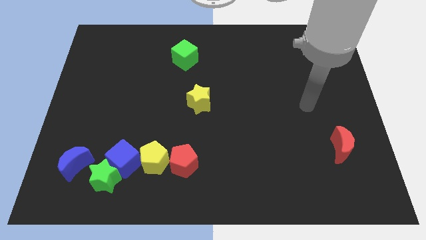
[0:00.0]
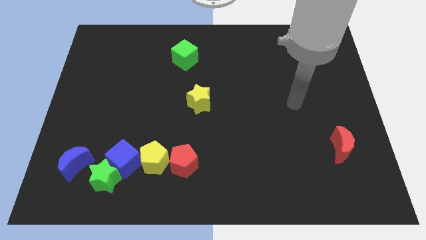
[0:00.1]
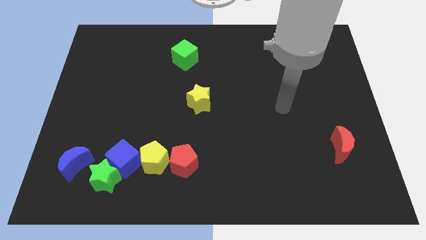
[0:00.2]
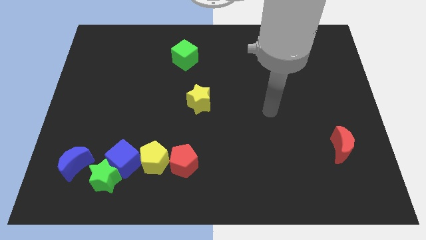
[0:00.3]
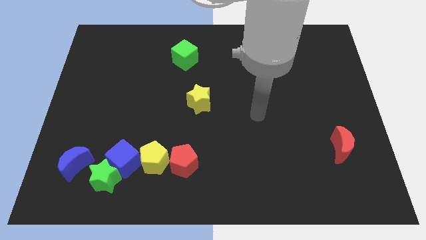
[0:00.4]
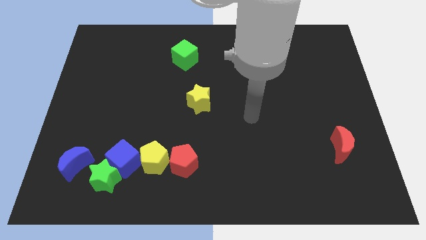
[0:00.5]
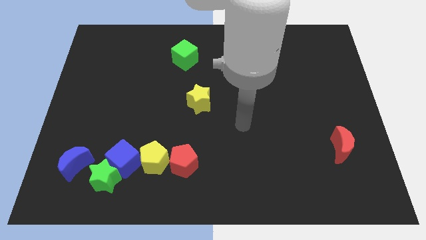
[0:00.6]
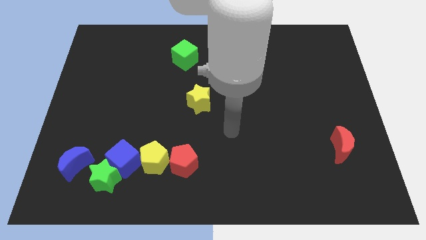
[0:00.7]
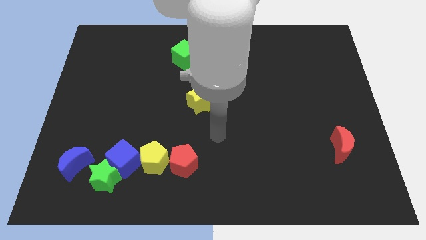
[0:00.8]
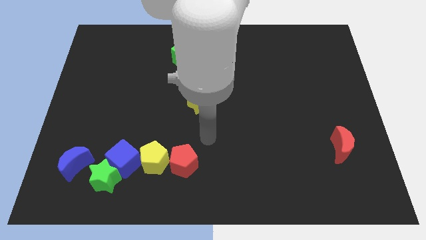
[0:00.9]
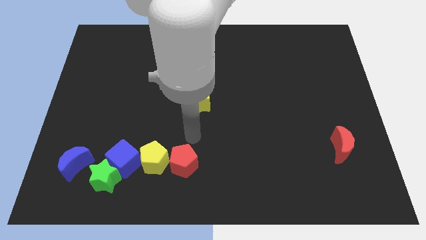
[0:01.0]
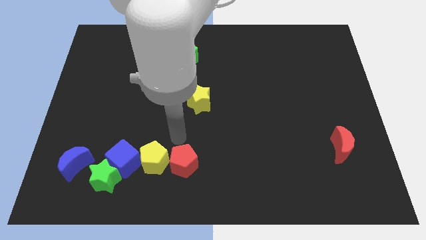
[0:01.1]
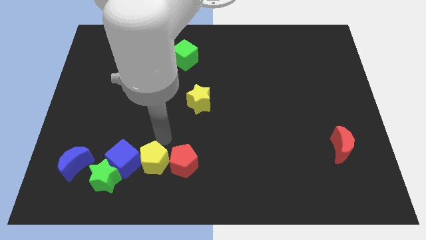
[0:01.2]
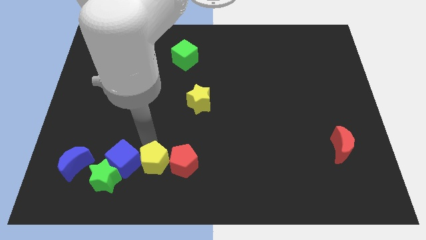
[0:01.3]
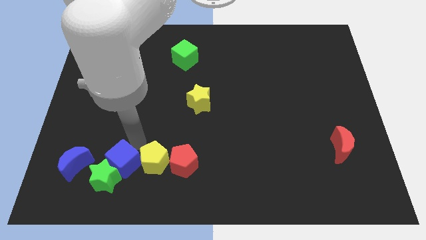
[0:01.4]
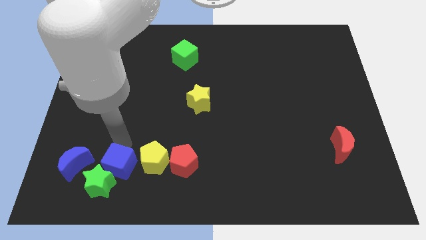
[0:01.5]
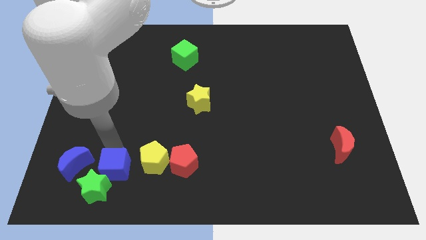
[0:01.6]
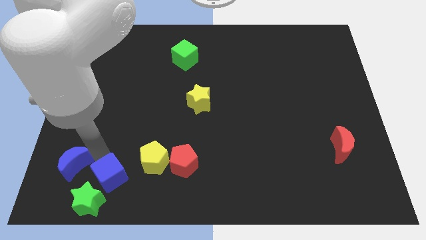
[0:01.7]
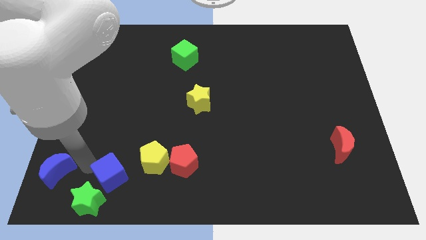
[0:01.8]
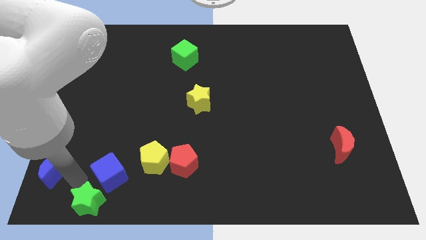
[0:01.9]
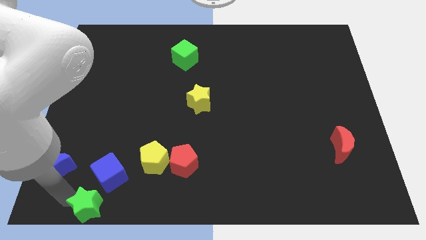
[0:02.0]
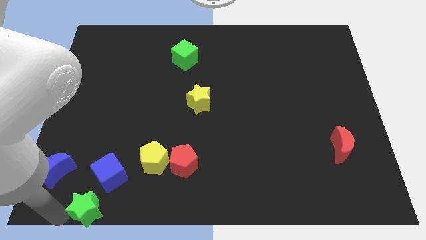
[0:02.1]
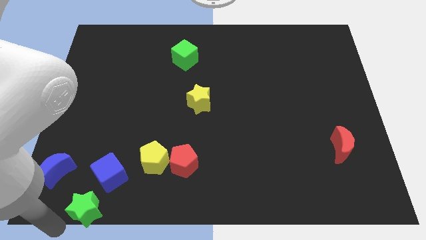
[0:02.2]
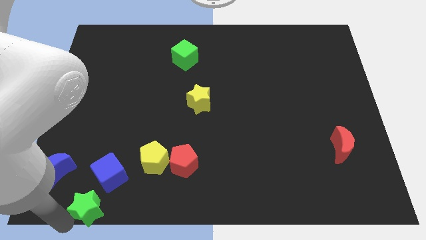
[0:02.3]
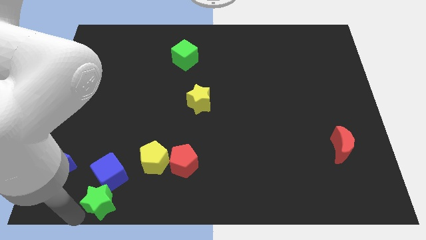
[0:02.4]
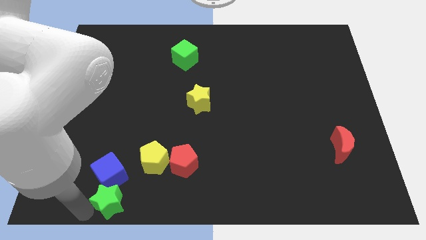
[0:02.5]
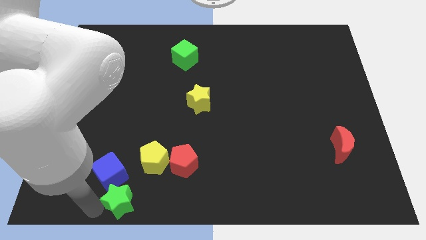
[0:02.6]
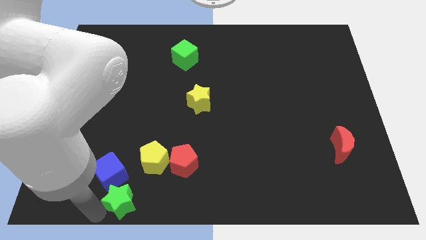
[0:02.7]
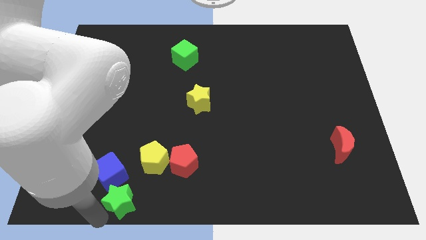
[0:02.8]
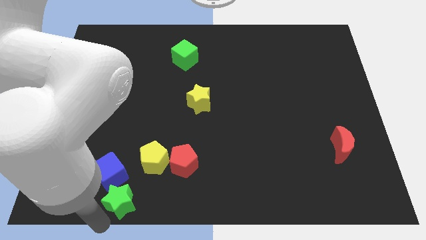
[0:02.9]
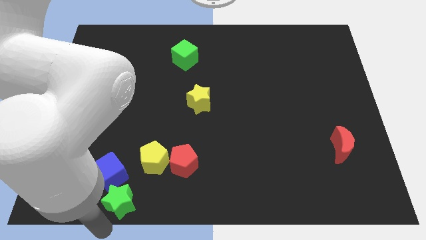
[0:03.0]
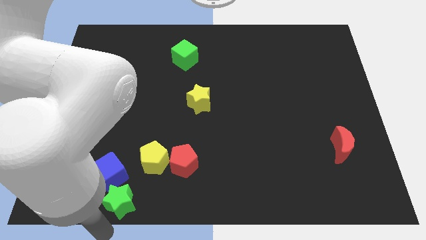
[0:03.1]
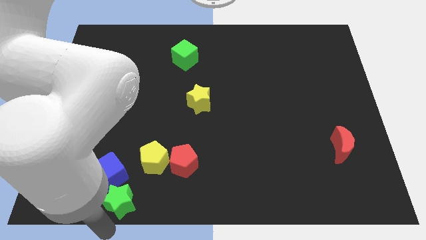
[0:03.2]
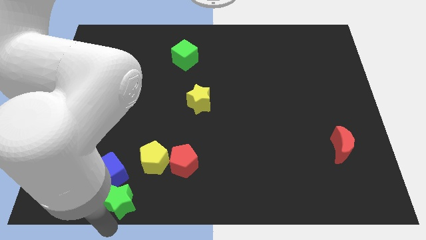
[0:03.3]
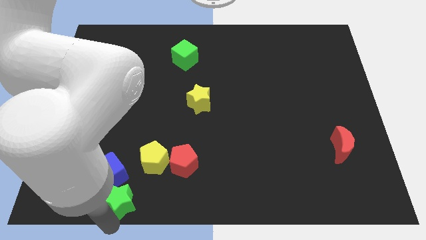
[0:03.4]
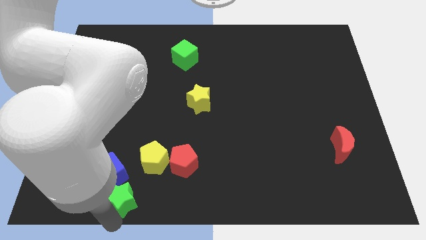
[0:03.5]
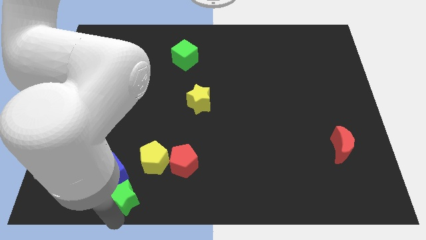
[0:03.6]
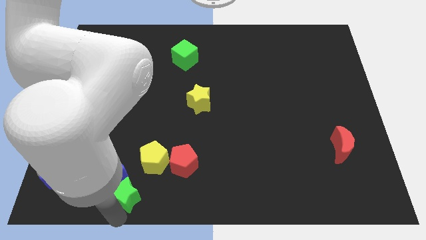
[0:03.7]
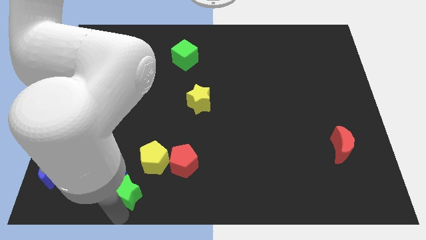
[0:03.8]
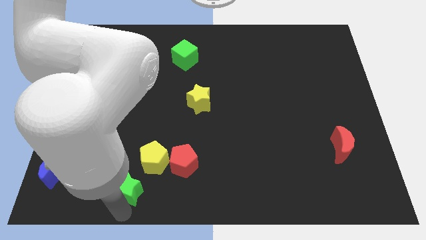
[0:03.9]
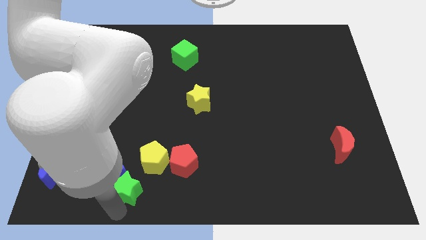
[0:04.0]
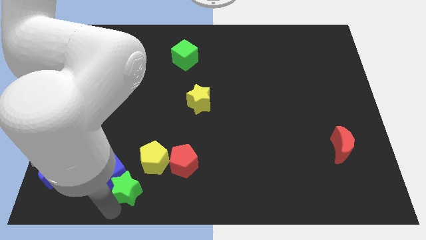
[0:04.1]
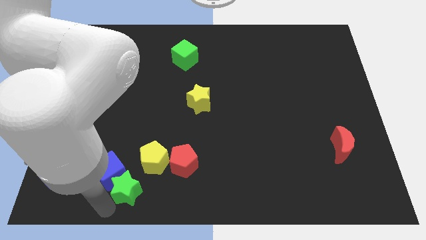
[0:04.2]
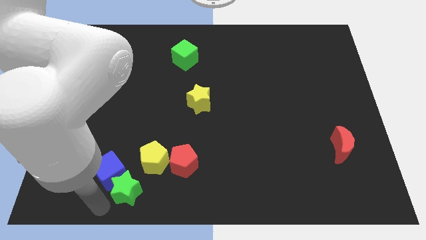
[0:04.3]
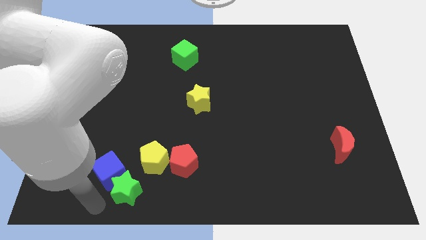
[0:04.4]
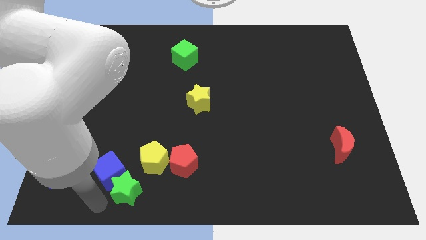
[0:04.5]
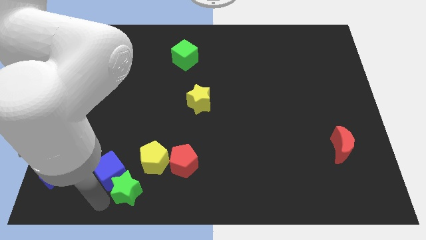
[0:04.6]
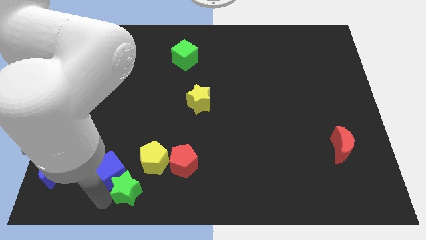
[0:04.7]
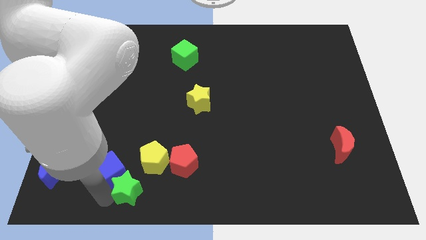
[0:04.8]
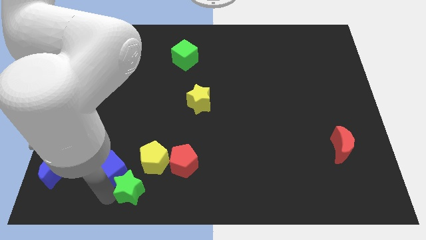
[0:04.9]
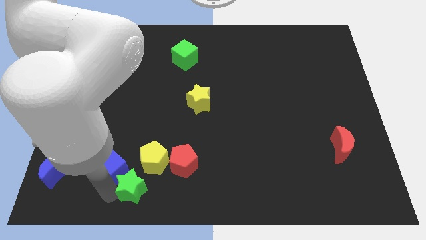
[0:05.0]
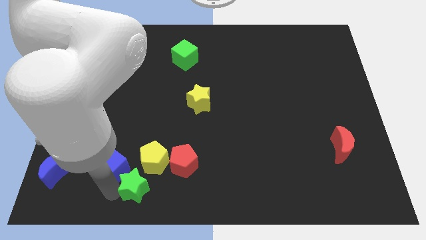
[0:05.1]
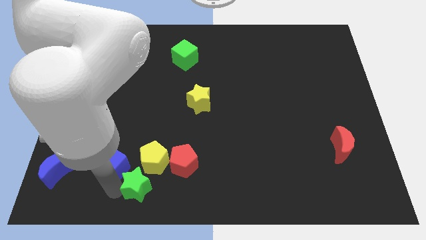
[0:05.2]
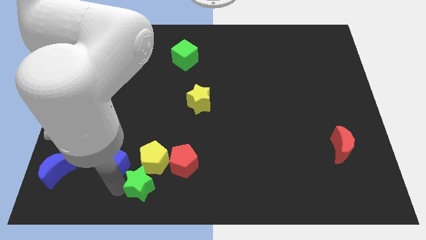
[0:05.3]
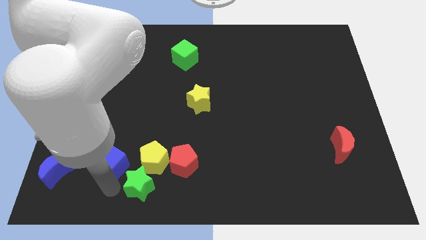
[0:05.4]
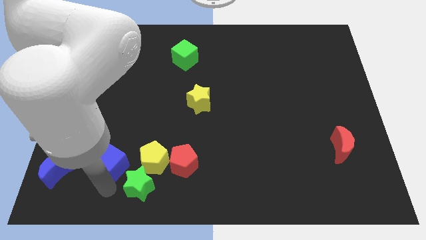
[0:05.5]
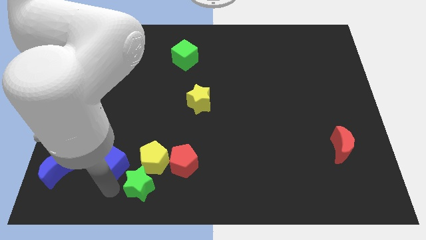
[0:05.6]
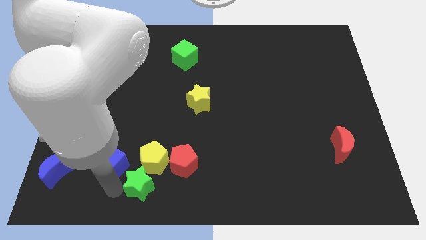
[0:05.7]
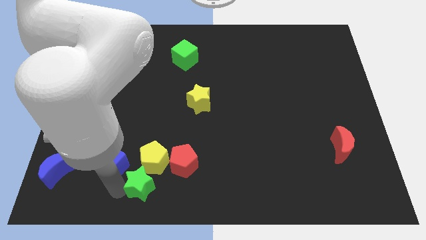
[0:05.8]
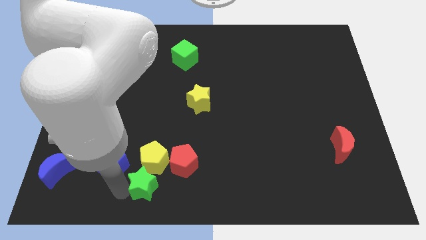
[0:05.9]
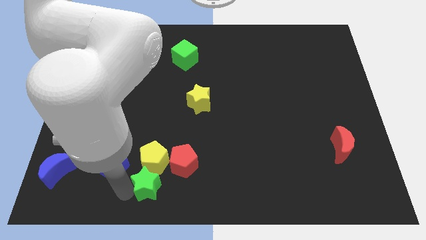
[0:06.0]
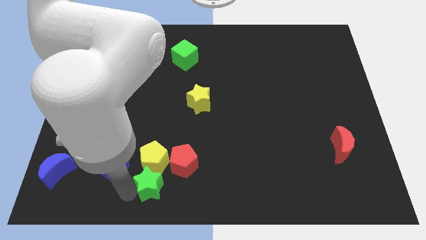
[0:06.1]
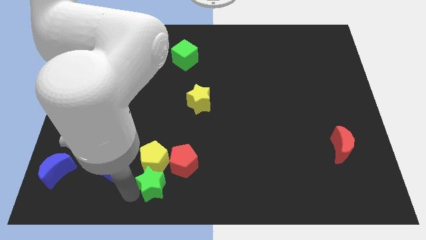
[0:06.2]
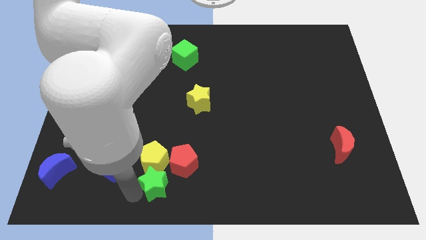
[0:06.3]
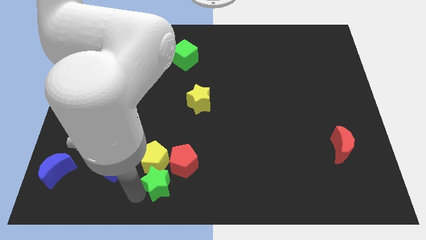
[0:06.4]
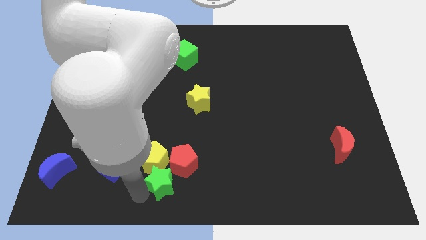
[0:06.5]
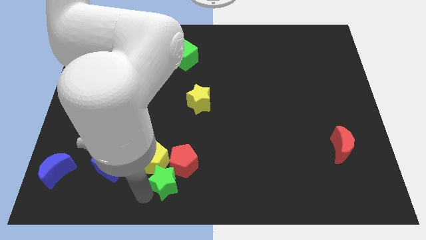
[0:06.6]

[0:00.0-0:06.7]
push the green star next to the red pentagon

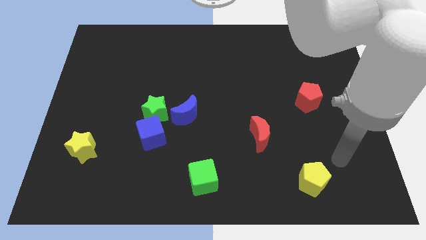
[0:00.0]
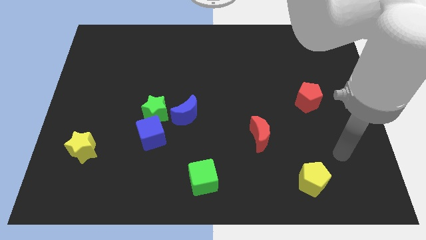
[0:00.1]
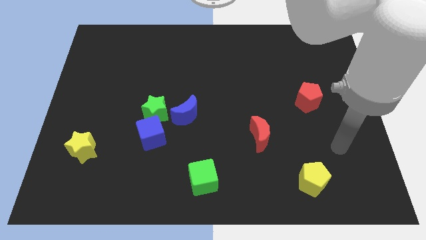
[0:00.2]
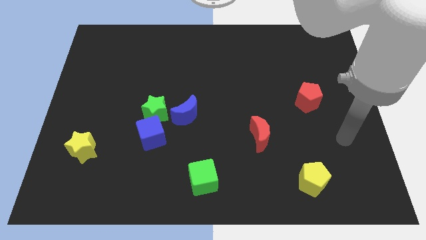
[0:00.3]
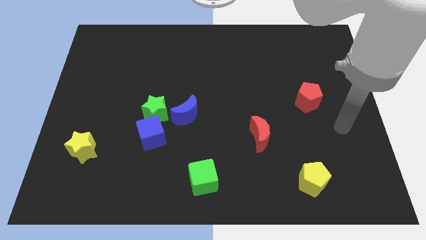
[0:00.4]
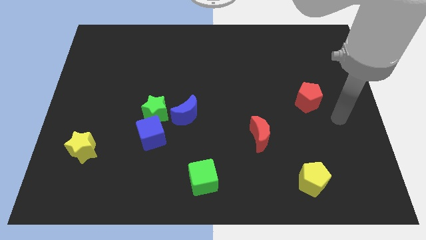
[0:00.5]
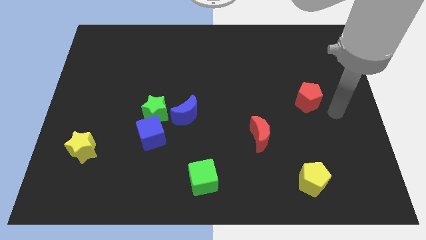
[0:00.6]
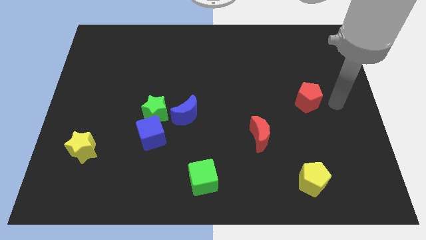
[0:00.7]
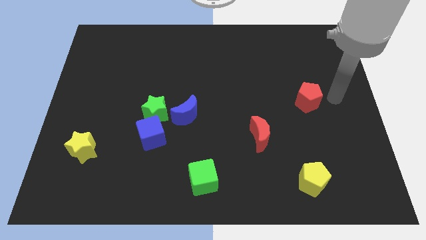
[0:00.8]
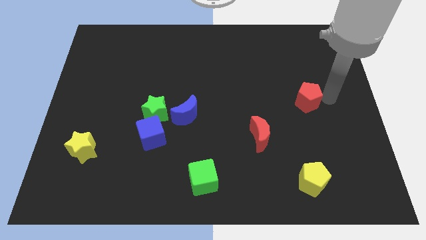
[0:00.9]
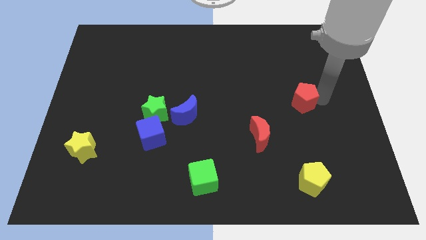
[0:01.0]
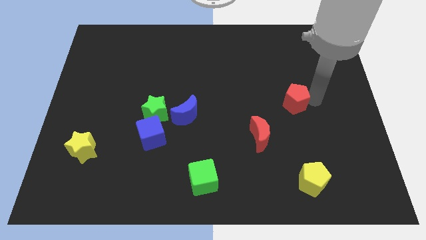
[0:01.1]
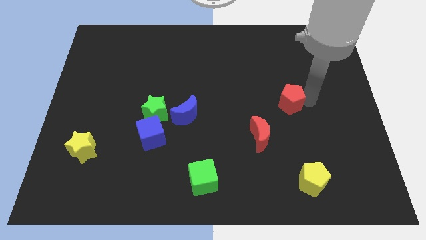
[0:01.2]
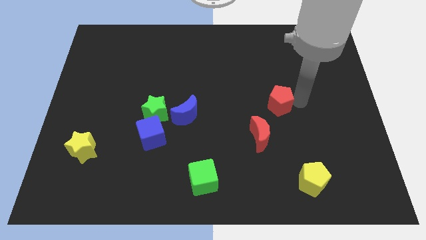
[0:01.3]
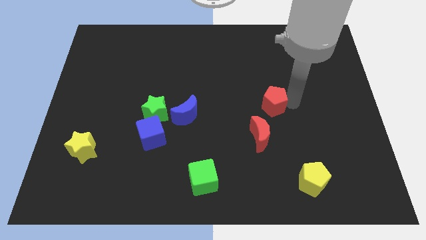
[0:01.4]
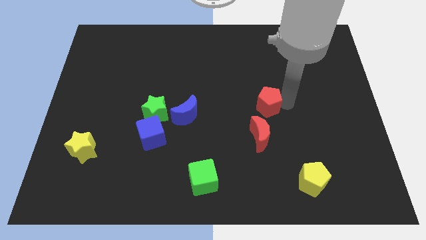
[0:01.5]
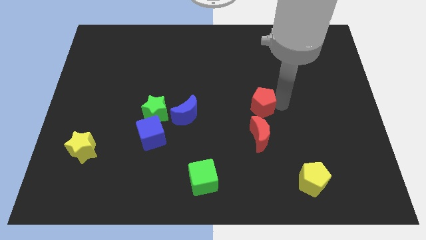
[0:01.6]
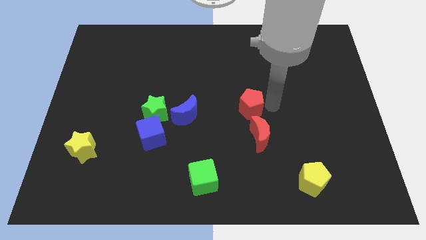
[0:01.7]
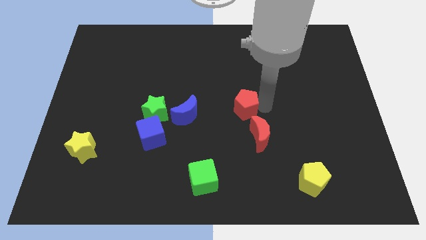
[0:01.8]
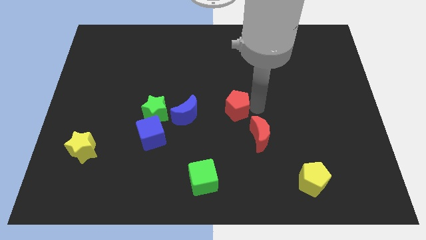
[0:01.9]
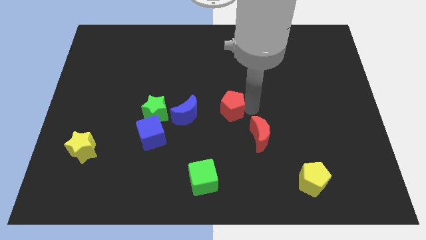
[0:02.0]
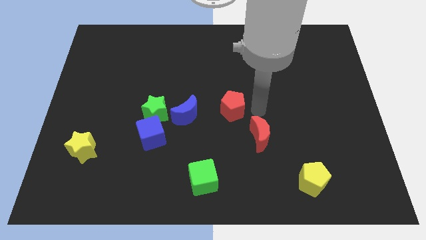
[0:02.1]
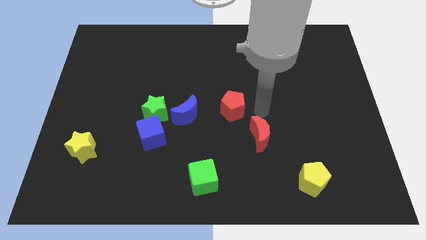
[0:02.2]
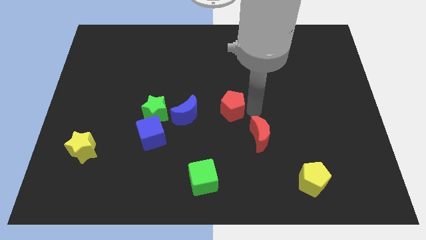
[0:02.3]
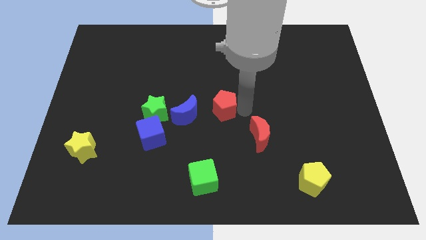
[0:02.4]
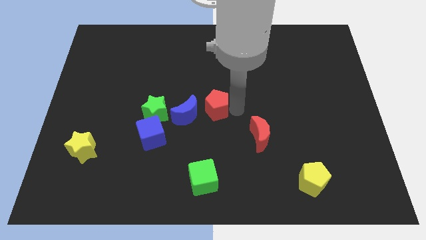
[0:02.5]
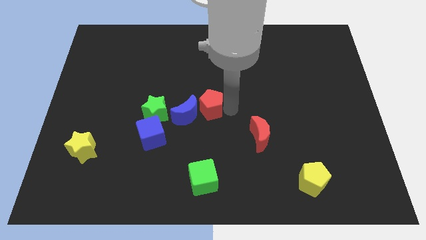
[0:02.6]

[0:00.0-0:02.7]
move the red pentagon next to the blue moon
